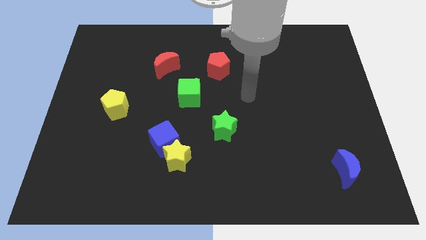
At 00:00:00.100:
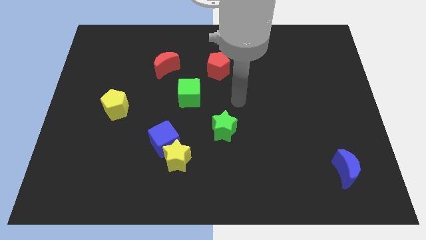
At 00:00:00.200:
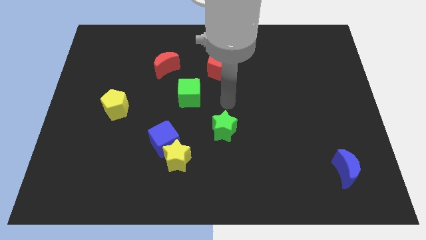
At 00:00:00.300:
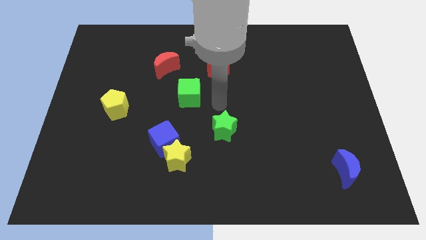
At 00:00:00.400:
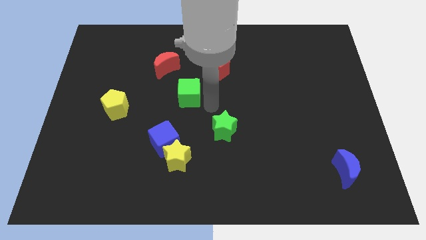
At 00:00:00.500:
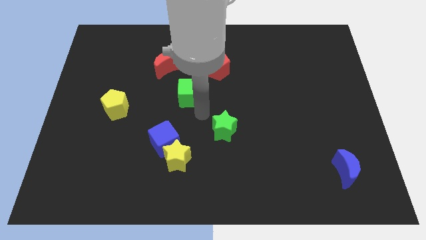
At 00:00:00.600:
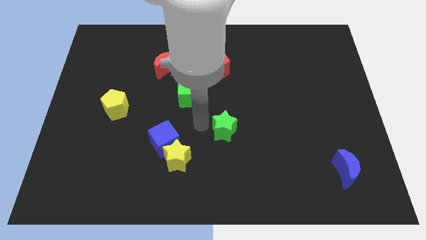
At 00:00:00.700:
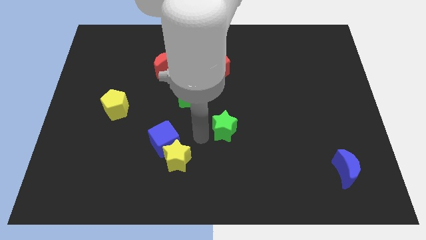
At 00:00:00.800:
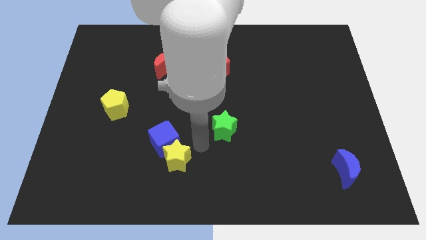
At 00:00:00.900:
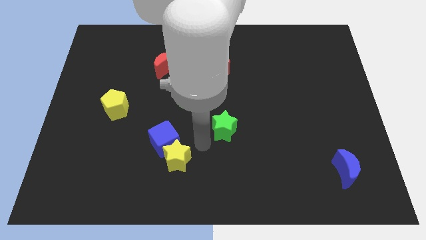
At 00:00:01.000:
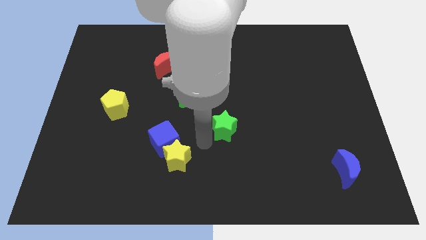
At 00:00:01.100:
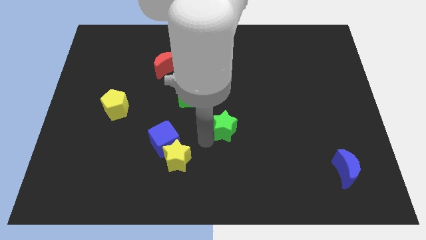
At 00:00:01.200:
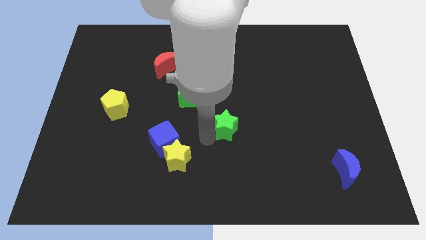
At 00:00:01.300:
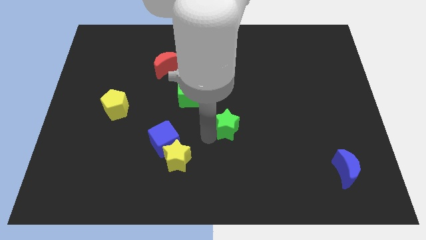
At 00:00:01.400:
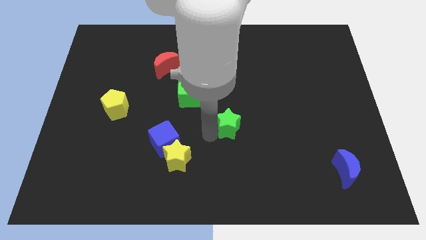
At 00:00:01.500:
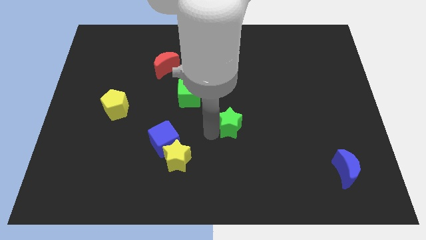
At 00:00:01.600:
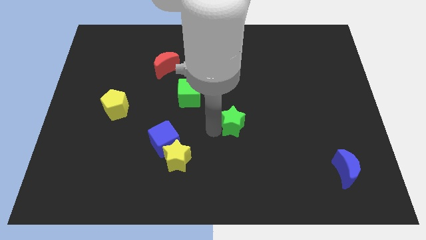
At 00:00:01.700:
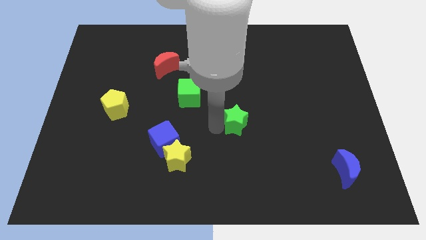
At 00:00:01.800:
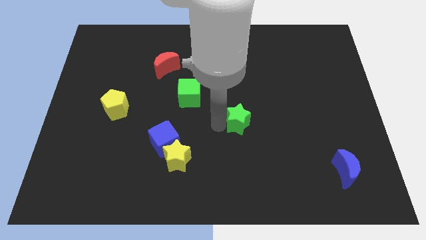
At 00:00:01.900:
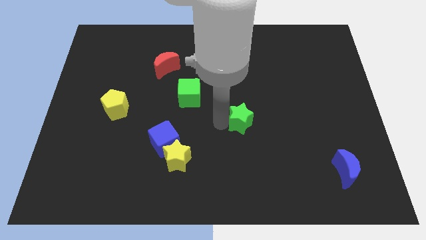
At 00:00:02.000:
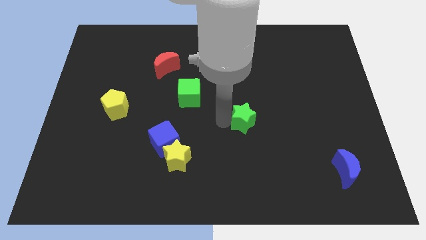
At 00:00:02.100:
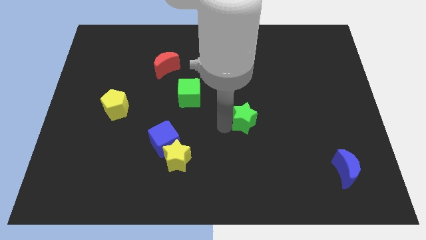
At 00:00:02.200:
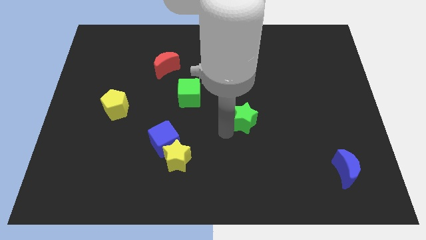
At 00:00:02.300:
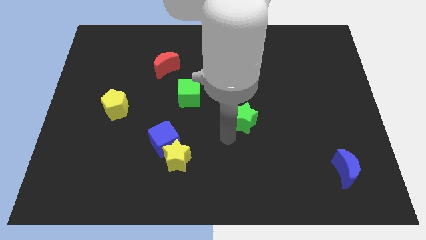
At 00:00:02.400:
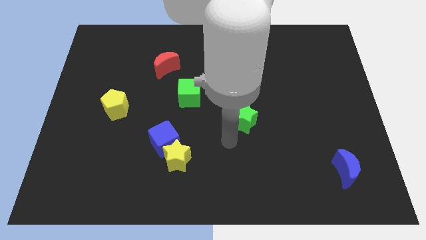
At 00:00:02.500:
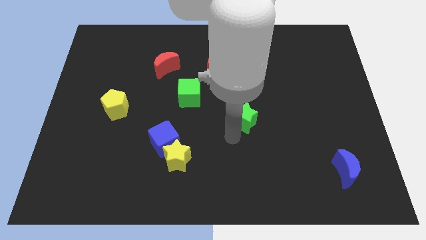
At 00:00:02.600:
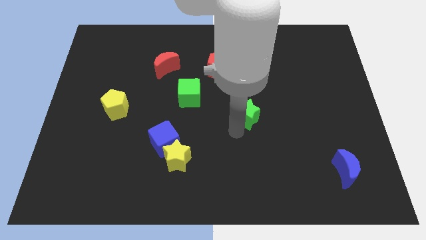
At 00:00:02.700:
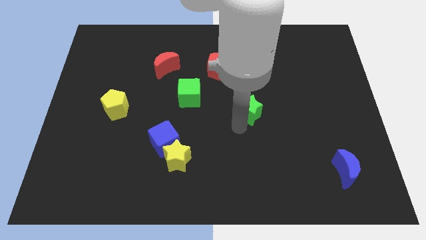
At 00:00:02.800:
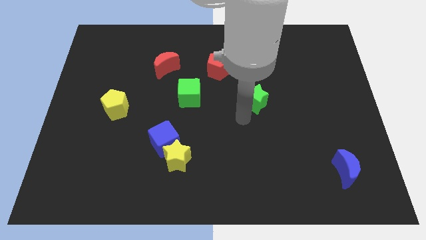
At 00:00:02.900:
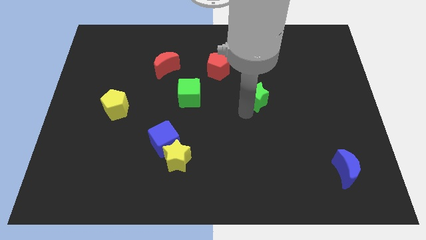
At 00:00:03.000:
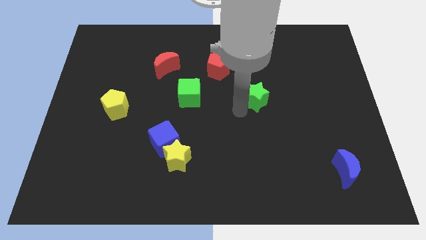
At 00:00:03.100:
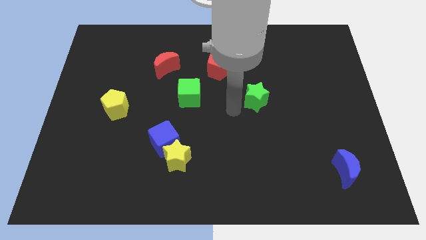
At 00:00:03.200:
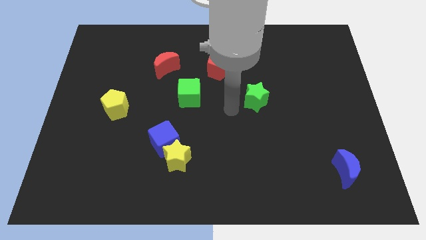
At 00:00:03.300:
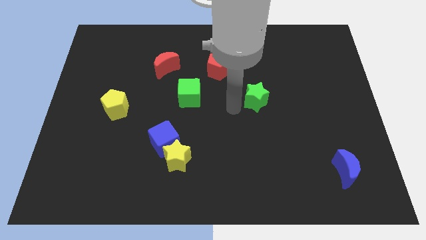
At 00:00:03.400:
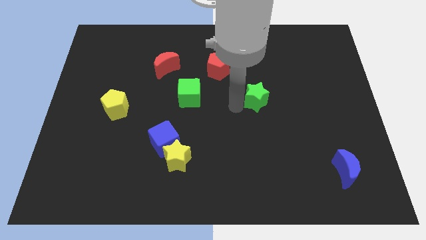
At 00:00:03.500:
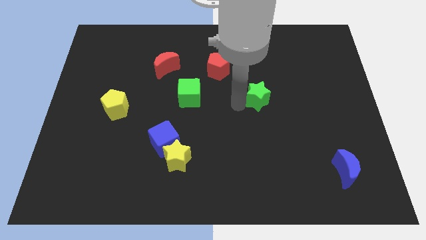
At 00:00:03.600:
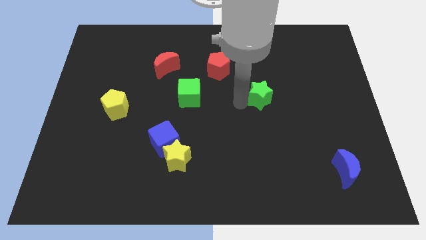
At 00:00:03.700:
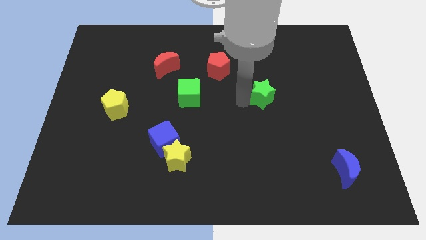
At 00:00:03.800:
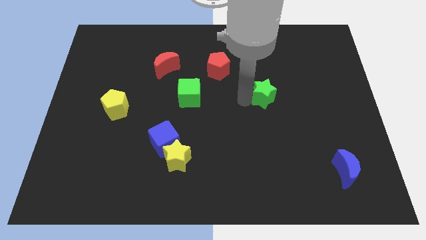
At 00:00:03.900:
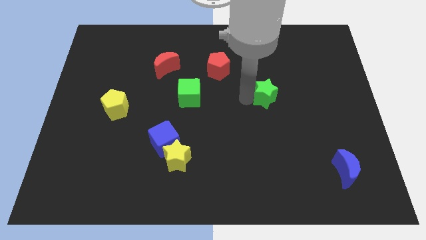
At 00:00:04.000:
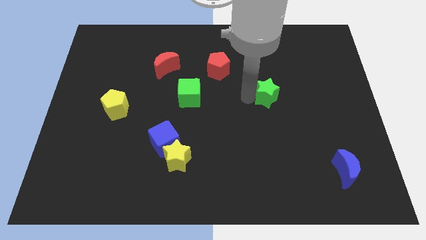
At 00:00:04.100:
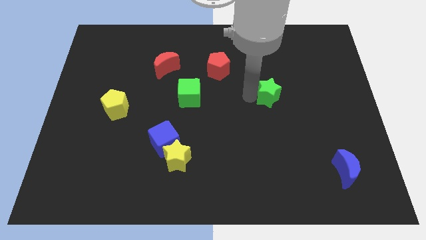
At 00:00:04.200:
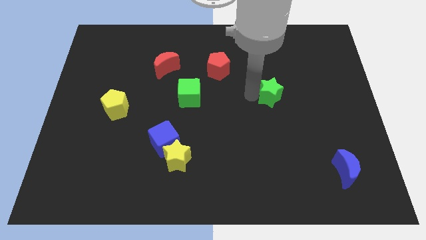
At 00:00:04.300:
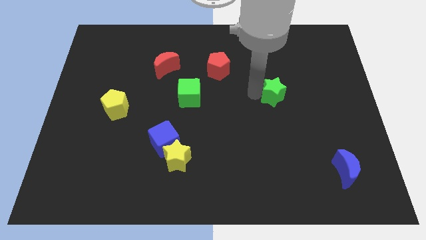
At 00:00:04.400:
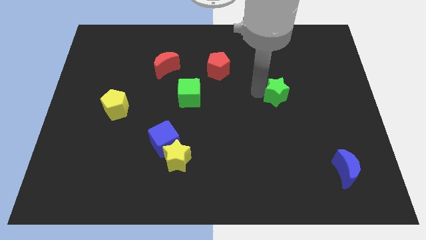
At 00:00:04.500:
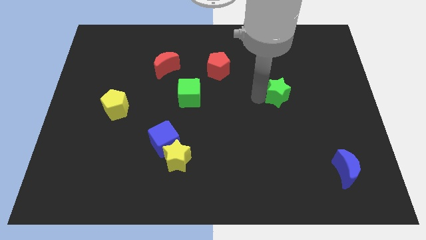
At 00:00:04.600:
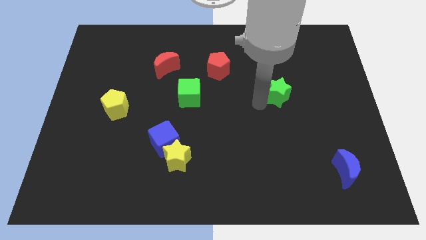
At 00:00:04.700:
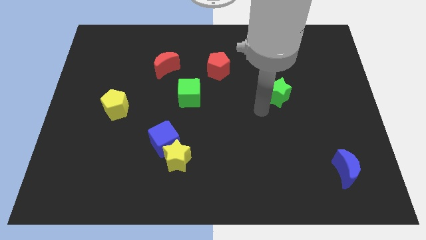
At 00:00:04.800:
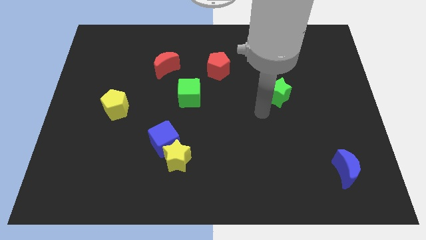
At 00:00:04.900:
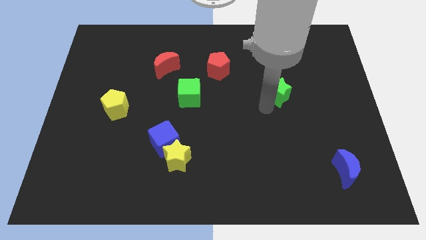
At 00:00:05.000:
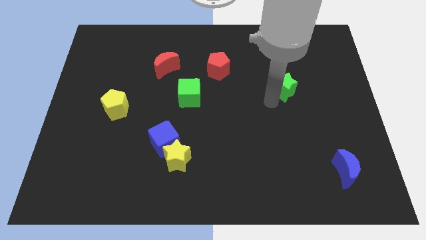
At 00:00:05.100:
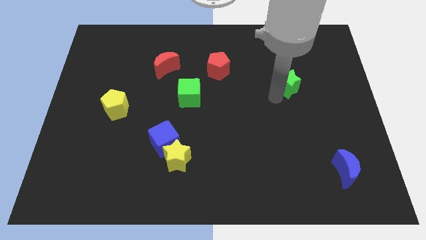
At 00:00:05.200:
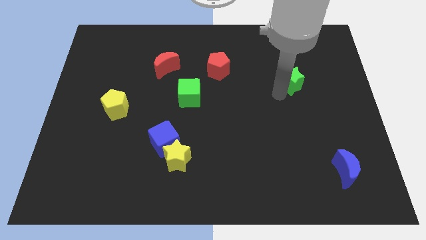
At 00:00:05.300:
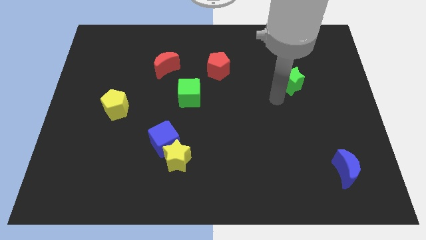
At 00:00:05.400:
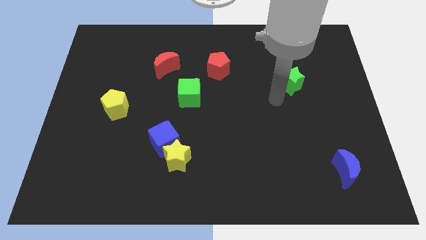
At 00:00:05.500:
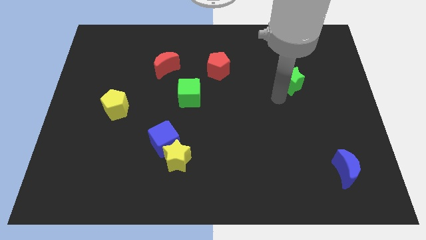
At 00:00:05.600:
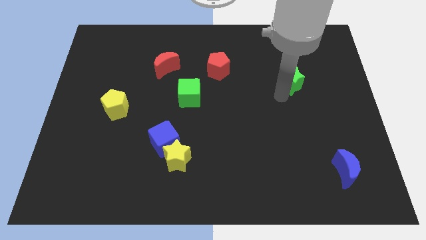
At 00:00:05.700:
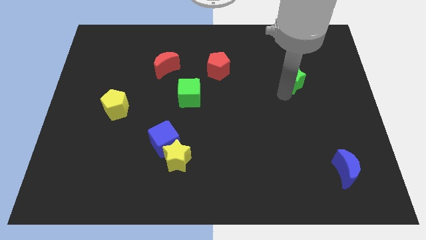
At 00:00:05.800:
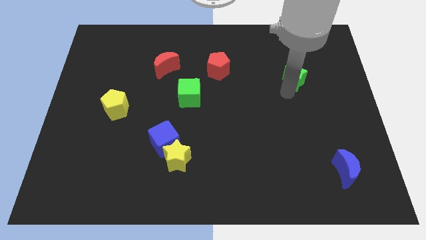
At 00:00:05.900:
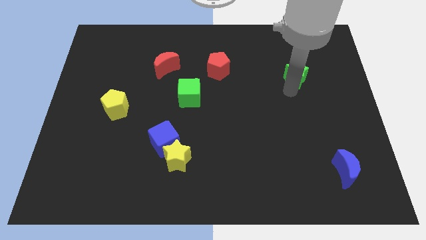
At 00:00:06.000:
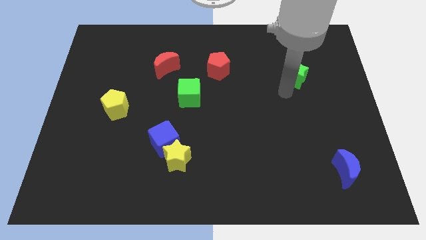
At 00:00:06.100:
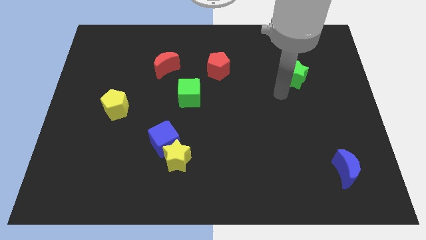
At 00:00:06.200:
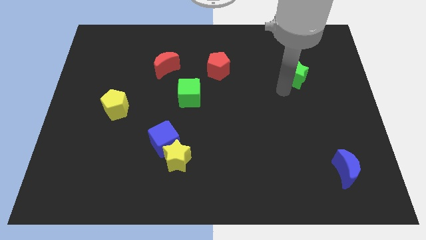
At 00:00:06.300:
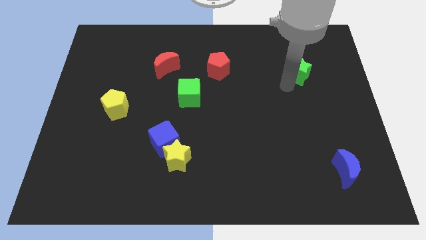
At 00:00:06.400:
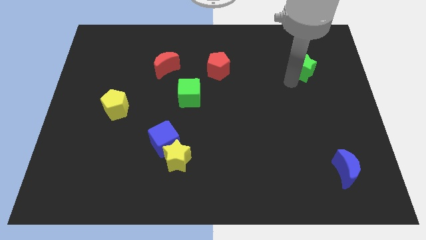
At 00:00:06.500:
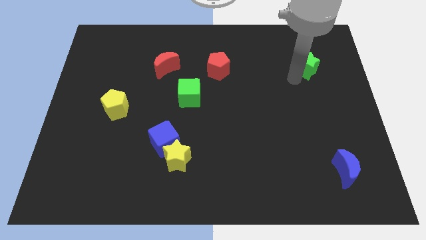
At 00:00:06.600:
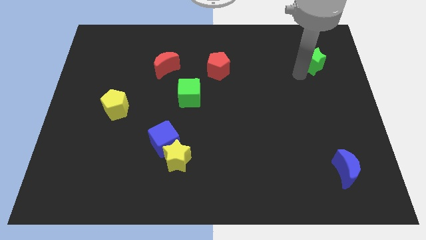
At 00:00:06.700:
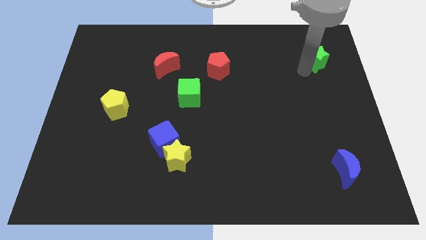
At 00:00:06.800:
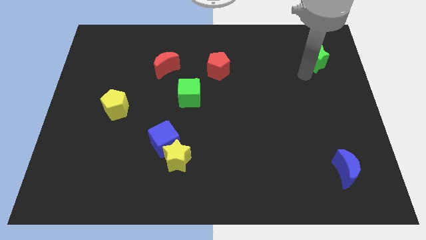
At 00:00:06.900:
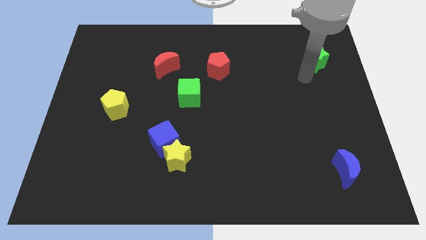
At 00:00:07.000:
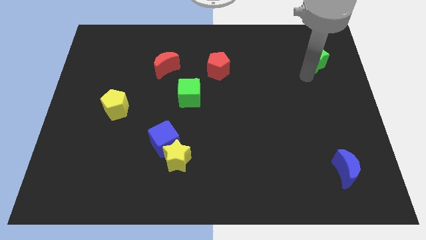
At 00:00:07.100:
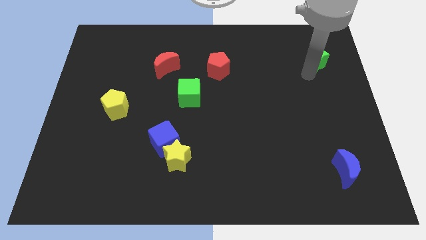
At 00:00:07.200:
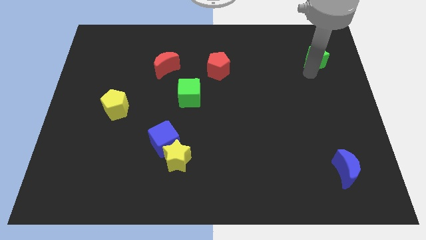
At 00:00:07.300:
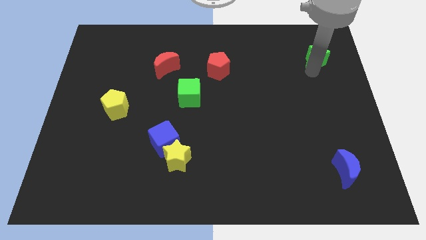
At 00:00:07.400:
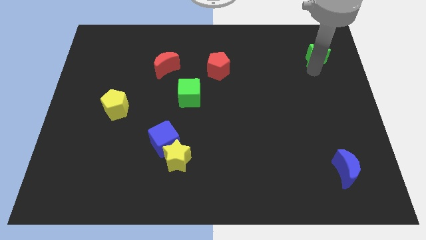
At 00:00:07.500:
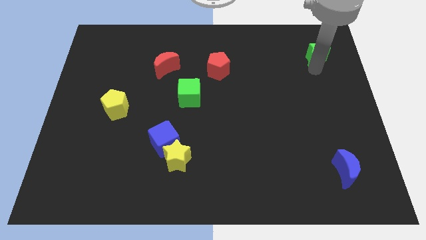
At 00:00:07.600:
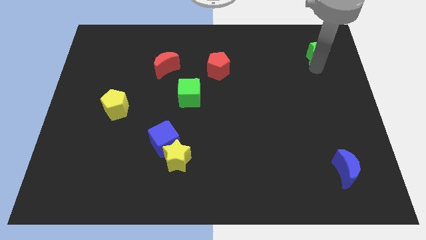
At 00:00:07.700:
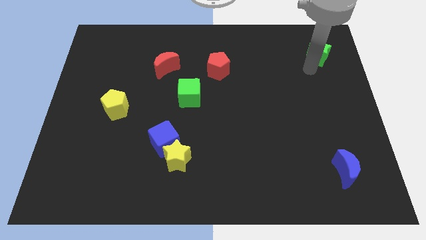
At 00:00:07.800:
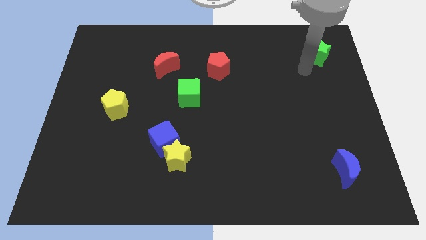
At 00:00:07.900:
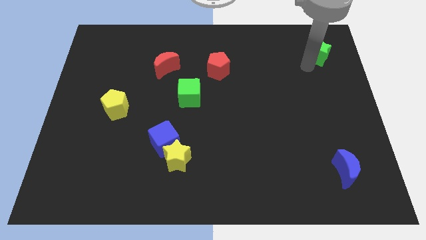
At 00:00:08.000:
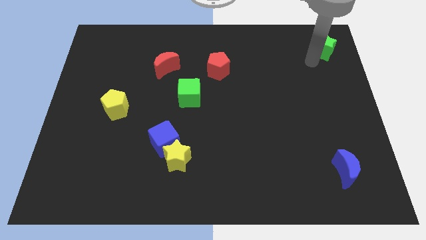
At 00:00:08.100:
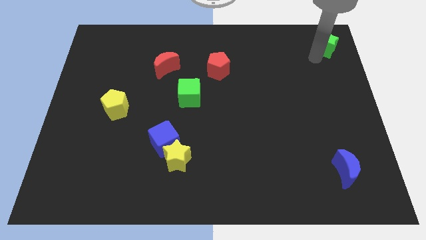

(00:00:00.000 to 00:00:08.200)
put the green star to the top right corner
